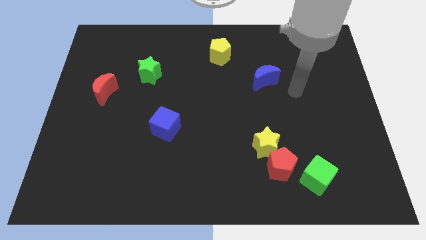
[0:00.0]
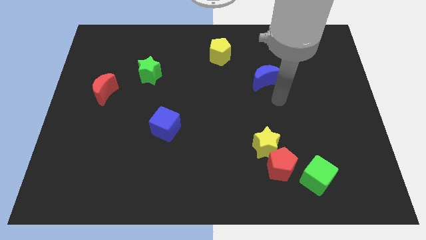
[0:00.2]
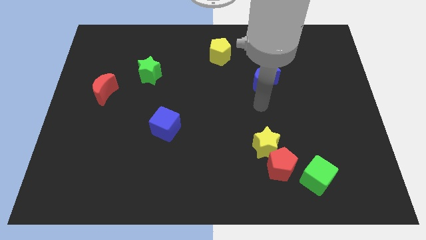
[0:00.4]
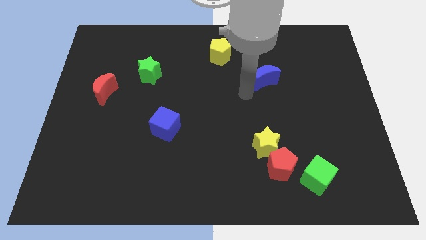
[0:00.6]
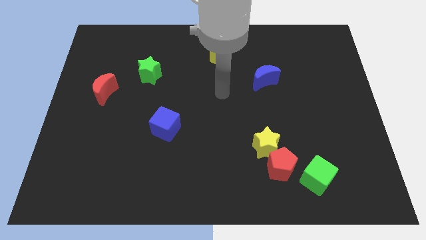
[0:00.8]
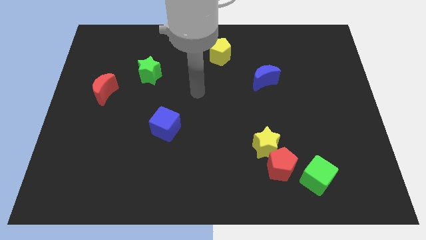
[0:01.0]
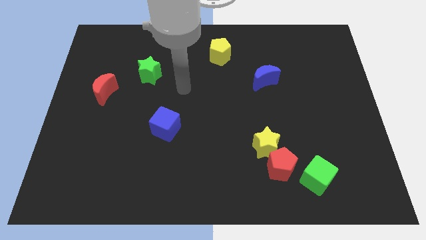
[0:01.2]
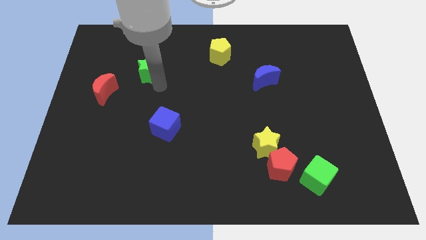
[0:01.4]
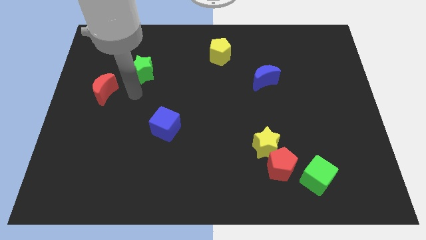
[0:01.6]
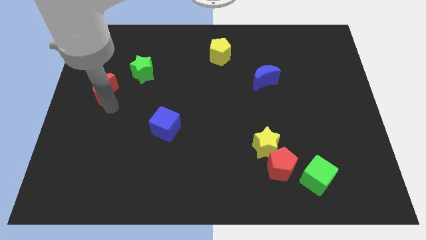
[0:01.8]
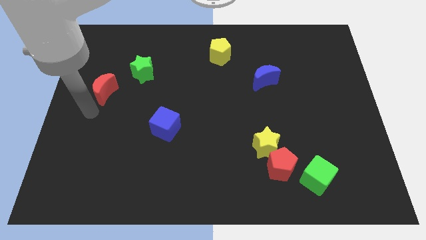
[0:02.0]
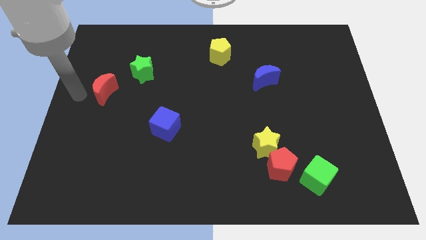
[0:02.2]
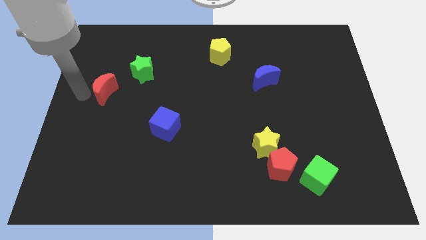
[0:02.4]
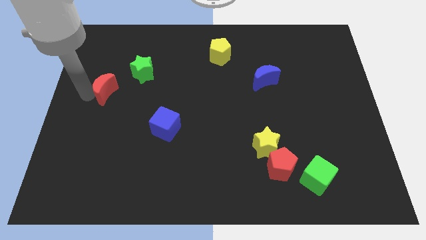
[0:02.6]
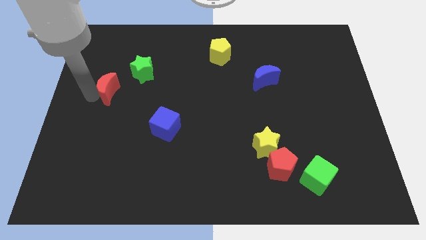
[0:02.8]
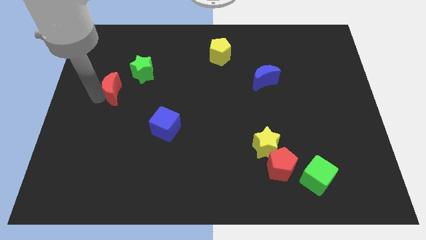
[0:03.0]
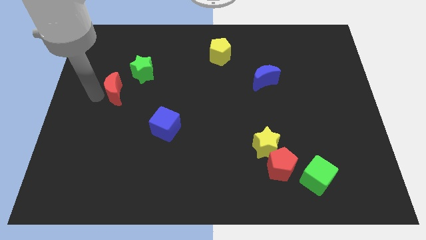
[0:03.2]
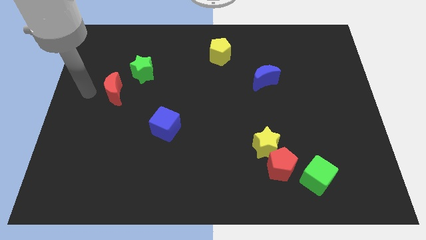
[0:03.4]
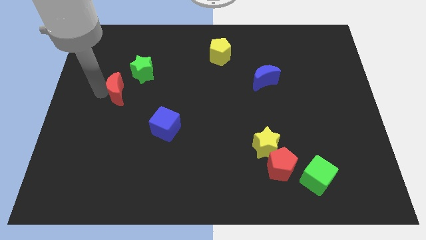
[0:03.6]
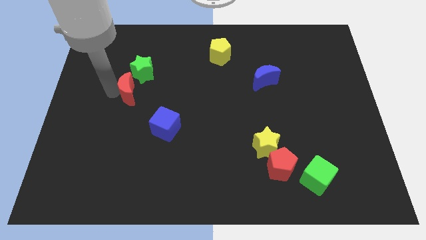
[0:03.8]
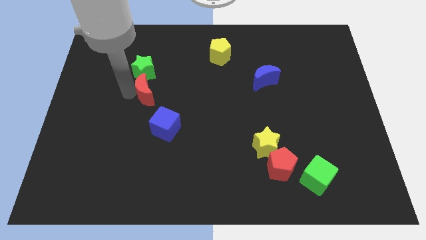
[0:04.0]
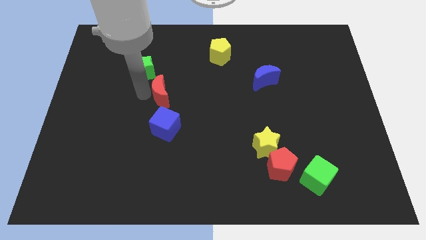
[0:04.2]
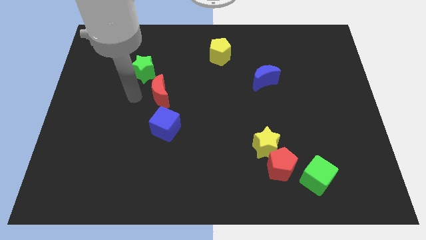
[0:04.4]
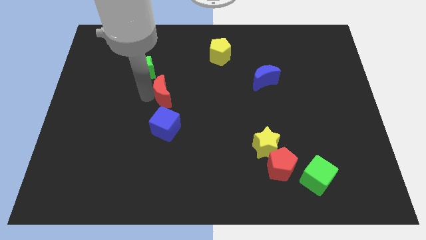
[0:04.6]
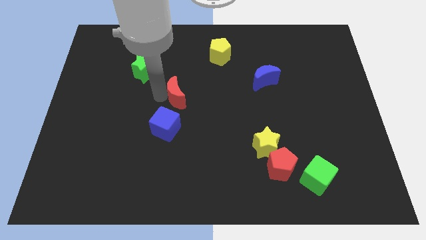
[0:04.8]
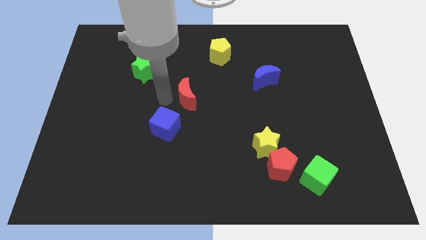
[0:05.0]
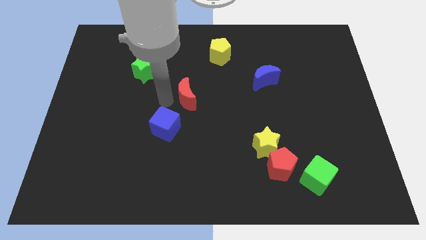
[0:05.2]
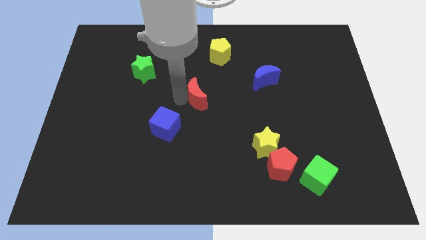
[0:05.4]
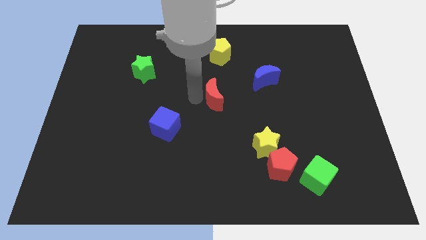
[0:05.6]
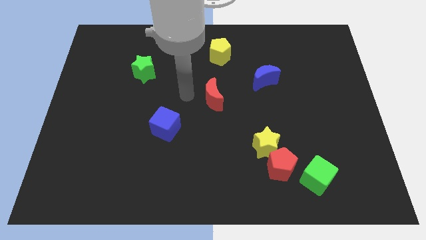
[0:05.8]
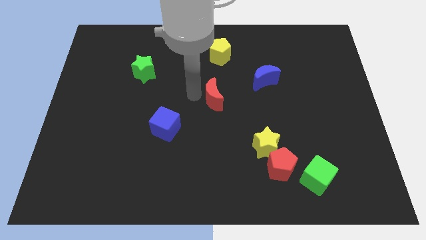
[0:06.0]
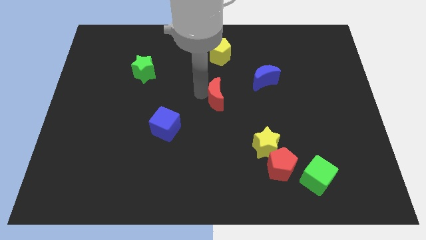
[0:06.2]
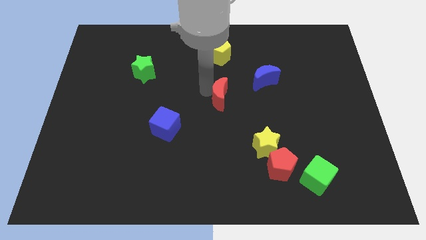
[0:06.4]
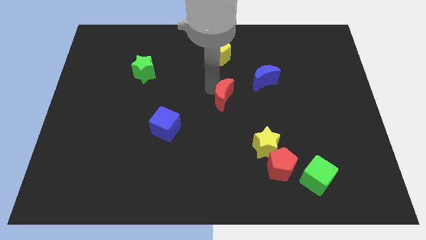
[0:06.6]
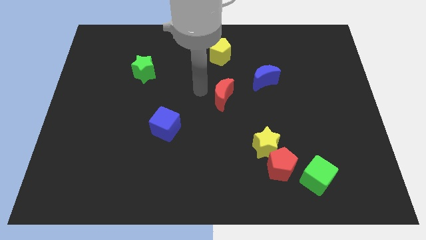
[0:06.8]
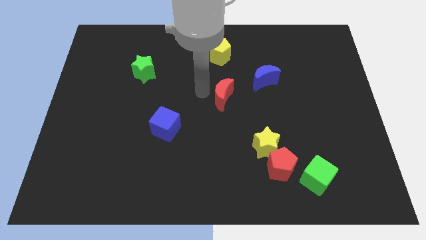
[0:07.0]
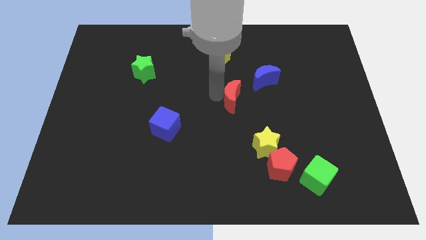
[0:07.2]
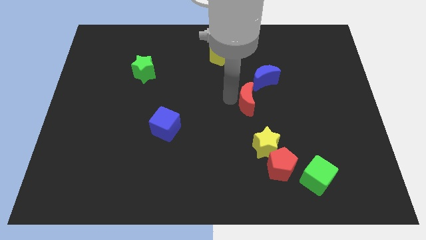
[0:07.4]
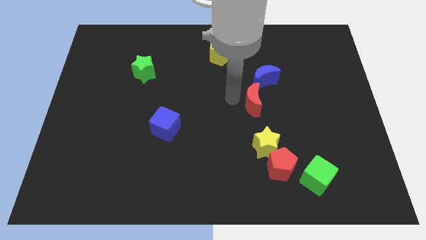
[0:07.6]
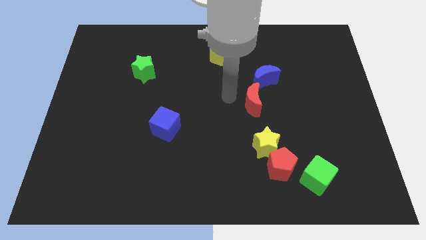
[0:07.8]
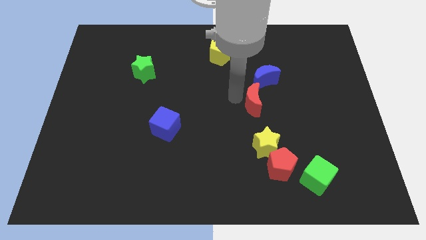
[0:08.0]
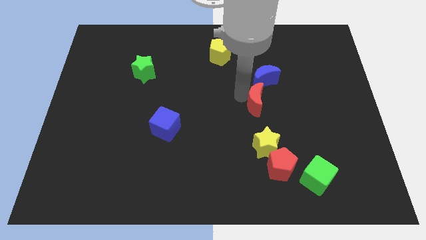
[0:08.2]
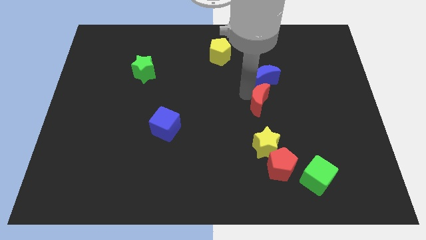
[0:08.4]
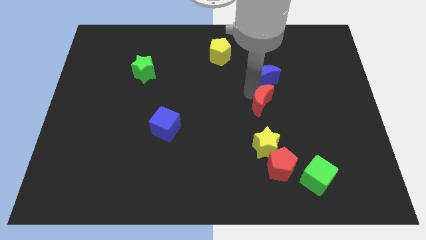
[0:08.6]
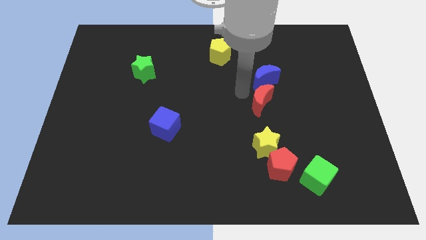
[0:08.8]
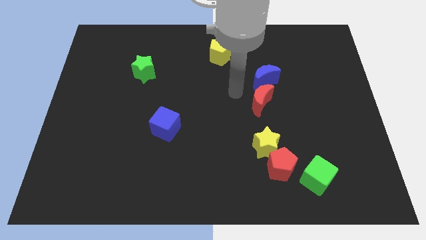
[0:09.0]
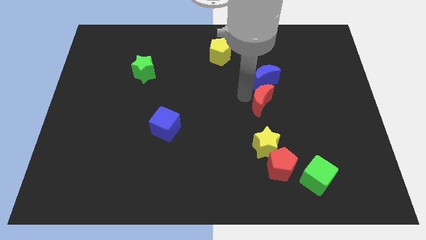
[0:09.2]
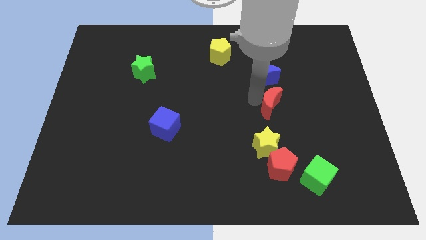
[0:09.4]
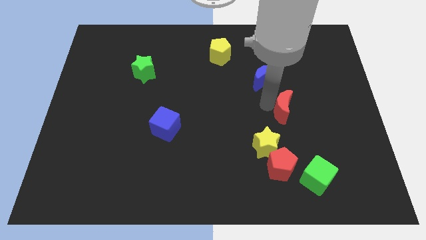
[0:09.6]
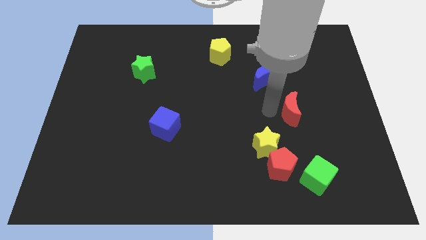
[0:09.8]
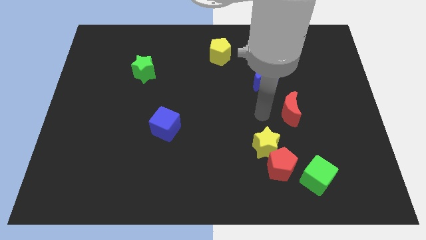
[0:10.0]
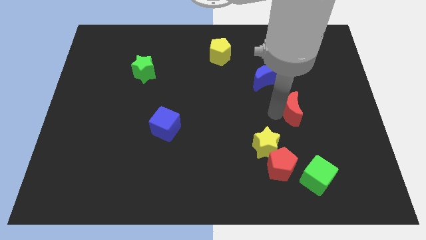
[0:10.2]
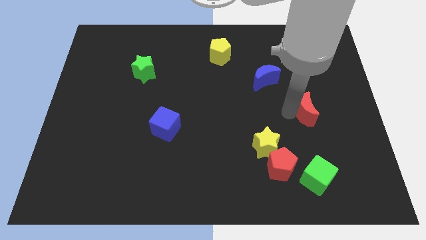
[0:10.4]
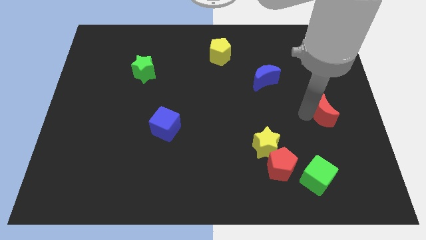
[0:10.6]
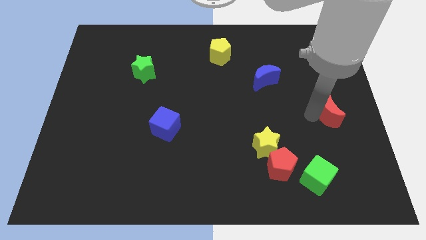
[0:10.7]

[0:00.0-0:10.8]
push the red moon to the right side
